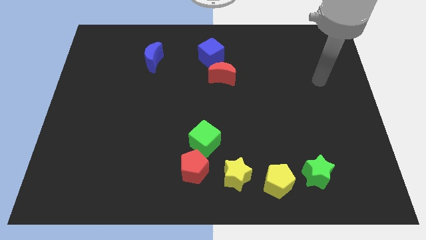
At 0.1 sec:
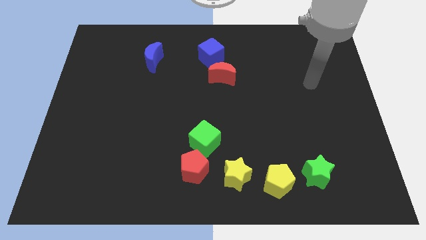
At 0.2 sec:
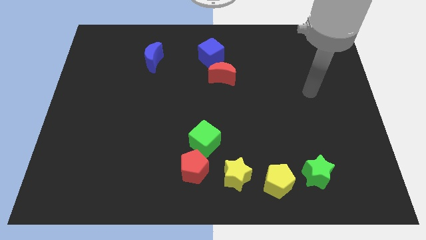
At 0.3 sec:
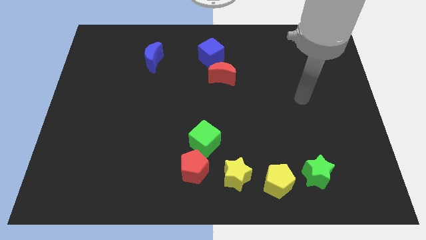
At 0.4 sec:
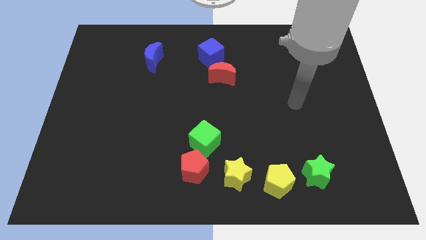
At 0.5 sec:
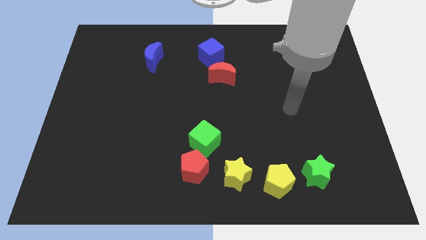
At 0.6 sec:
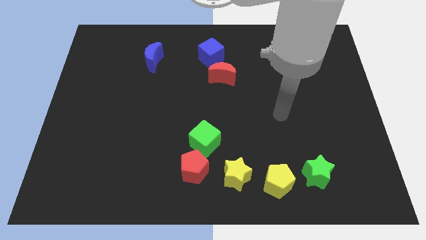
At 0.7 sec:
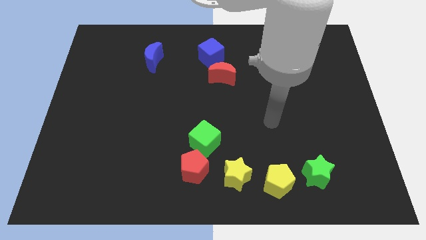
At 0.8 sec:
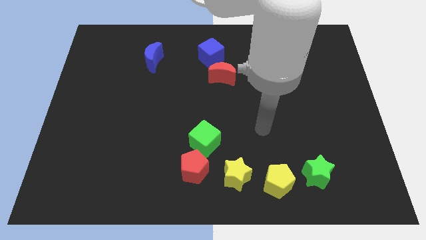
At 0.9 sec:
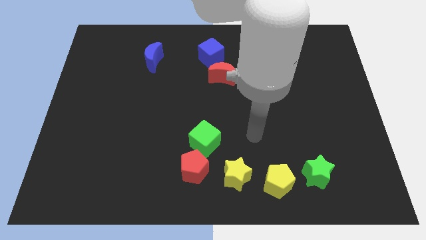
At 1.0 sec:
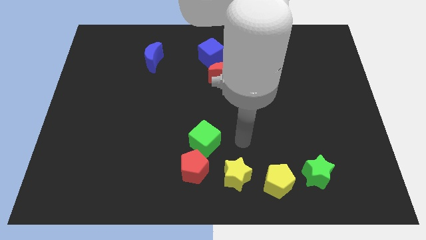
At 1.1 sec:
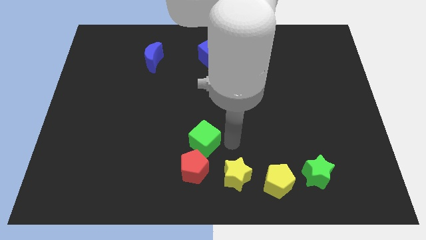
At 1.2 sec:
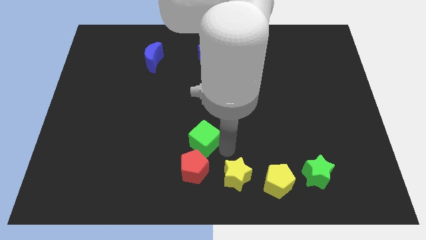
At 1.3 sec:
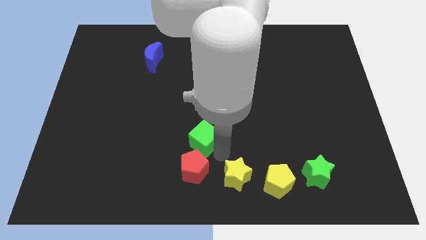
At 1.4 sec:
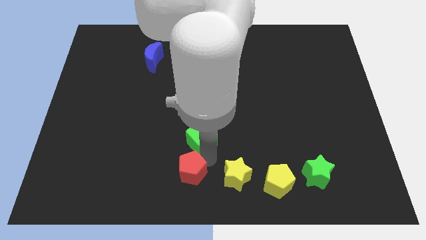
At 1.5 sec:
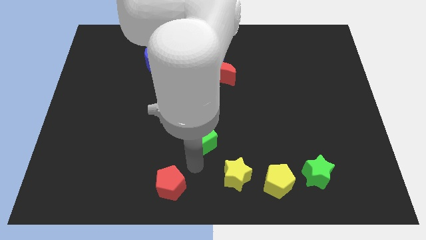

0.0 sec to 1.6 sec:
pull the green cube apart from the red pentagon

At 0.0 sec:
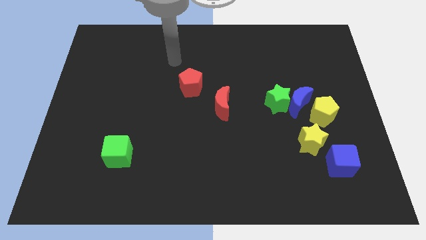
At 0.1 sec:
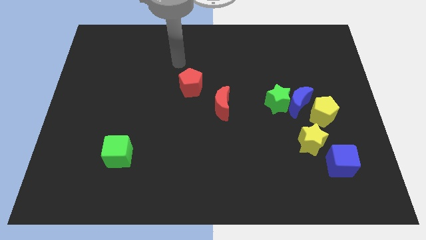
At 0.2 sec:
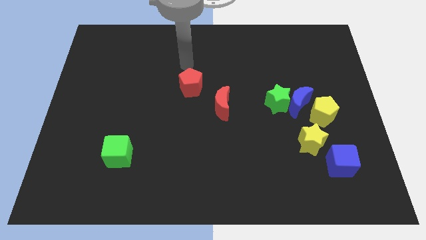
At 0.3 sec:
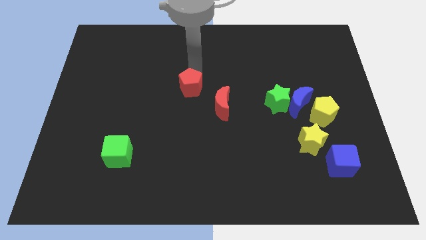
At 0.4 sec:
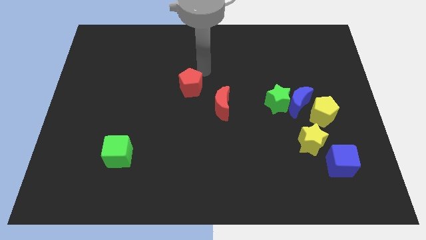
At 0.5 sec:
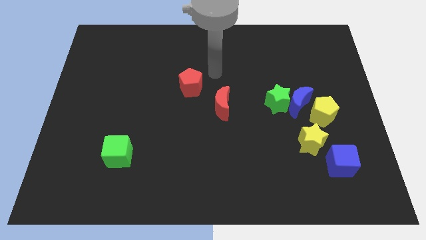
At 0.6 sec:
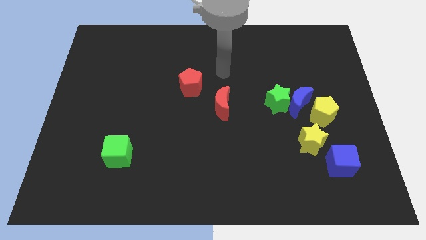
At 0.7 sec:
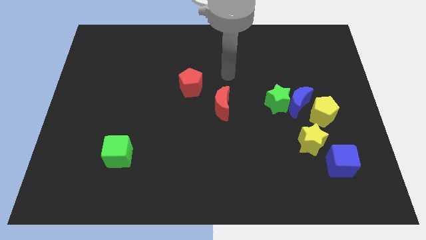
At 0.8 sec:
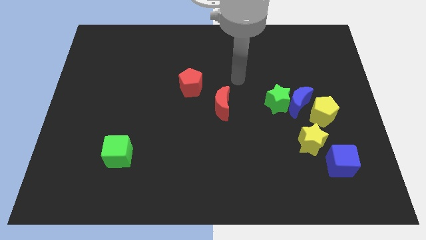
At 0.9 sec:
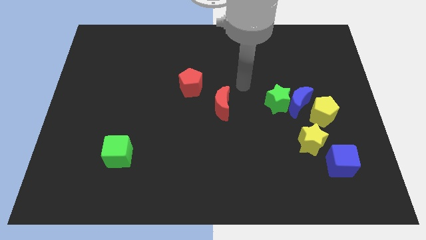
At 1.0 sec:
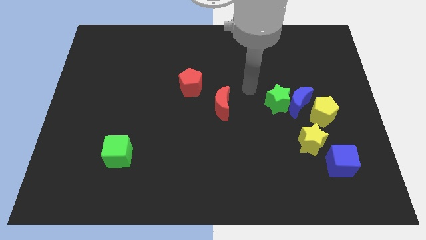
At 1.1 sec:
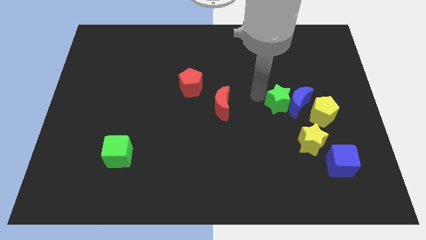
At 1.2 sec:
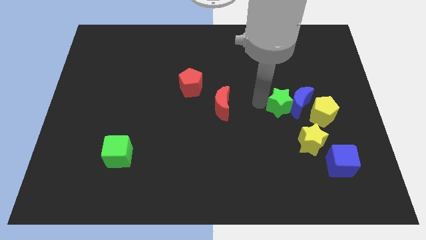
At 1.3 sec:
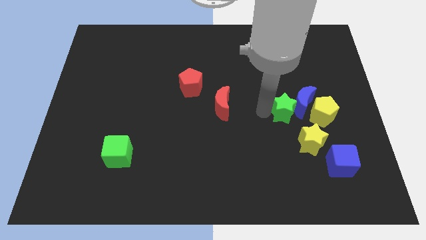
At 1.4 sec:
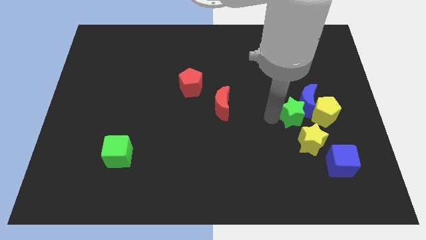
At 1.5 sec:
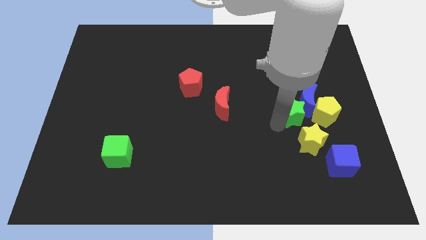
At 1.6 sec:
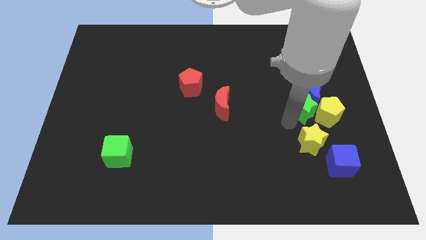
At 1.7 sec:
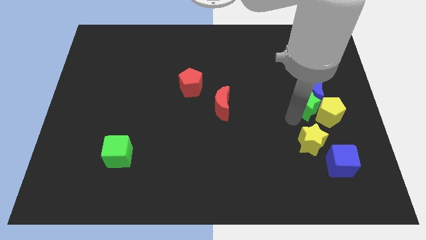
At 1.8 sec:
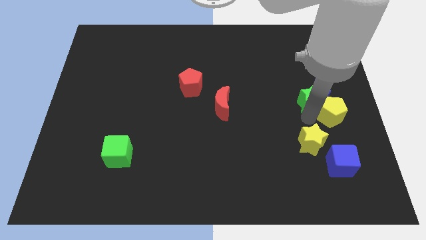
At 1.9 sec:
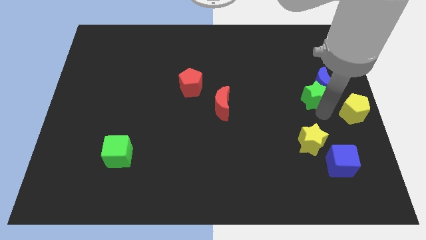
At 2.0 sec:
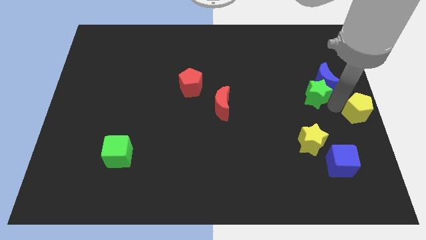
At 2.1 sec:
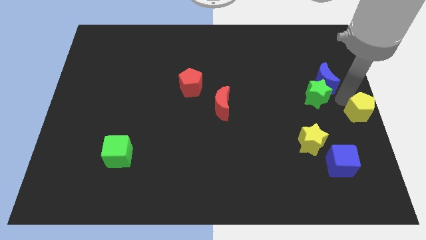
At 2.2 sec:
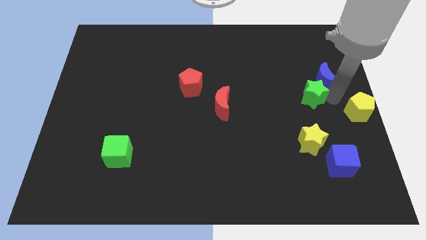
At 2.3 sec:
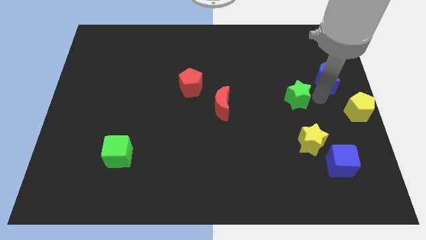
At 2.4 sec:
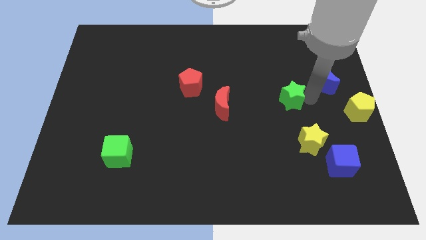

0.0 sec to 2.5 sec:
pull the green star apart from the blue moon

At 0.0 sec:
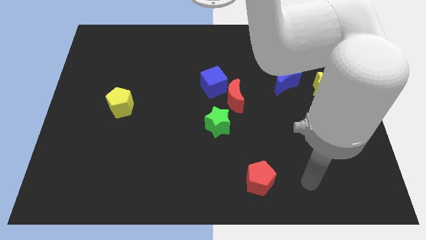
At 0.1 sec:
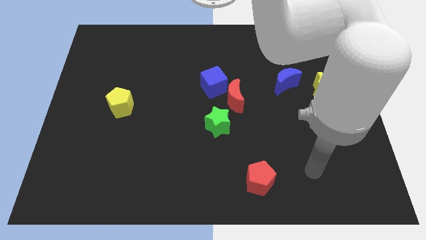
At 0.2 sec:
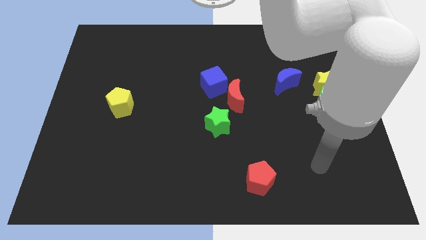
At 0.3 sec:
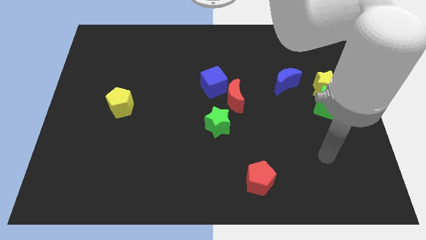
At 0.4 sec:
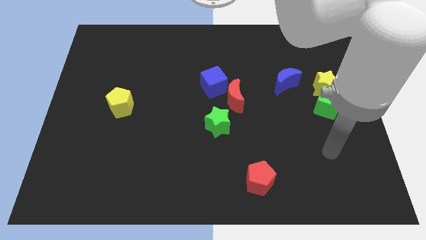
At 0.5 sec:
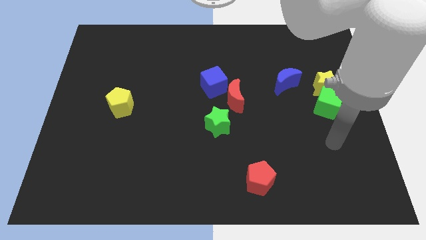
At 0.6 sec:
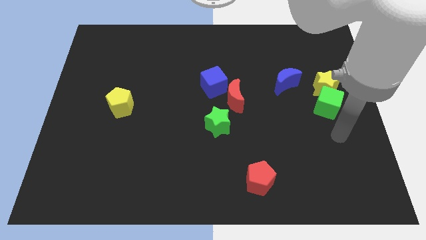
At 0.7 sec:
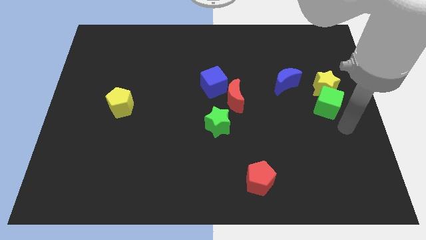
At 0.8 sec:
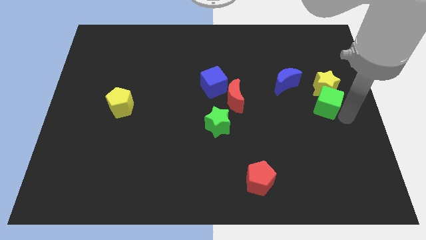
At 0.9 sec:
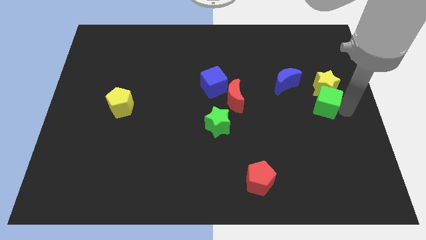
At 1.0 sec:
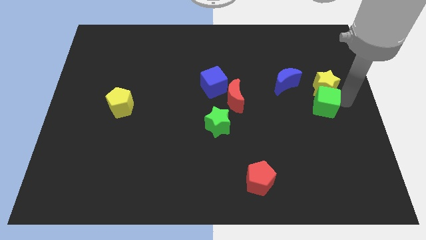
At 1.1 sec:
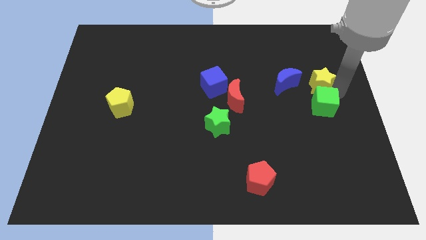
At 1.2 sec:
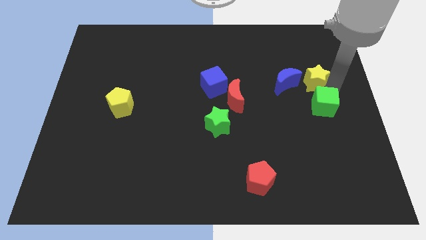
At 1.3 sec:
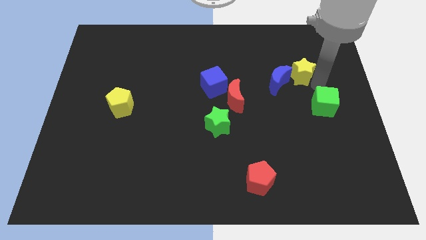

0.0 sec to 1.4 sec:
separate the green cube from the yellow star

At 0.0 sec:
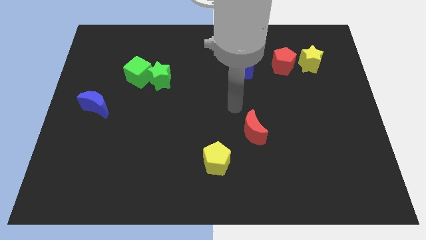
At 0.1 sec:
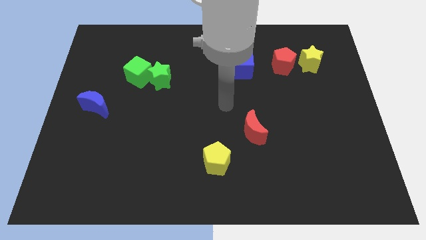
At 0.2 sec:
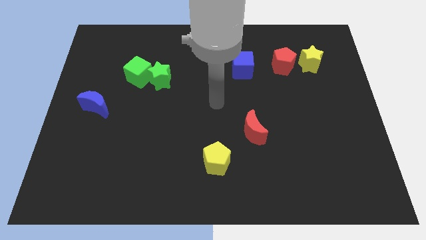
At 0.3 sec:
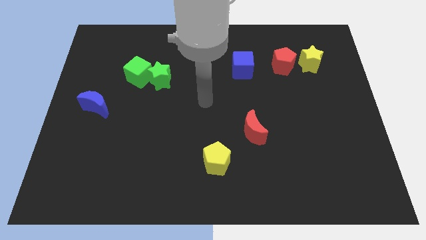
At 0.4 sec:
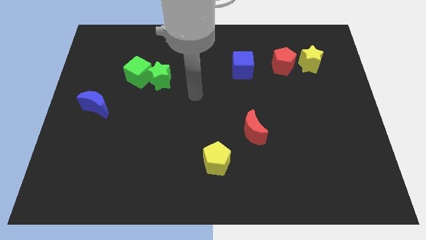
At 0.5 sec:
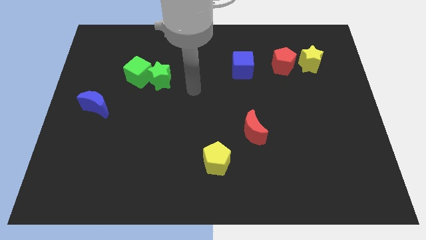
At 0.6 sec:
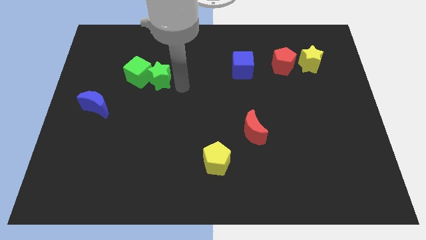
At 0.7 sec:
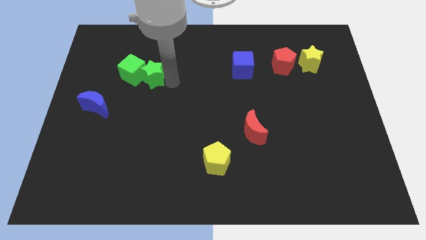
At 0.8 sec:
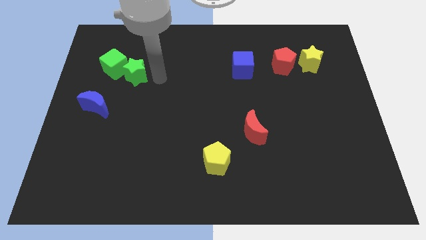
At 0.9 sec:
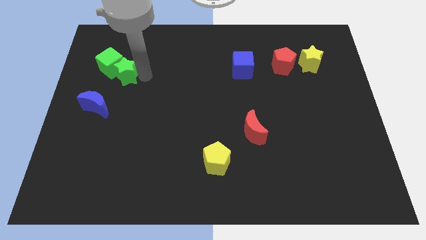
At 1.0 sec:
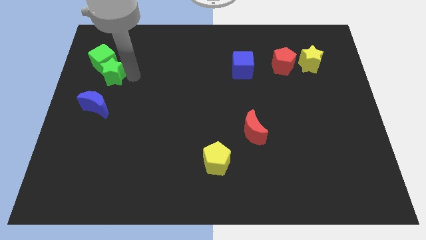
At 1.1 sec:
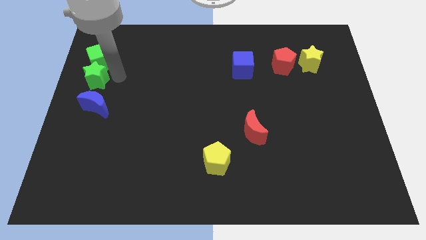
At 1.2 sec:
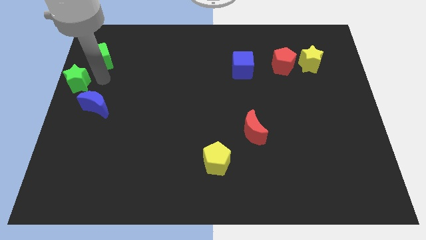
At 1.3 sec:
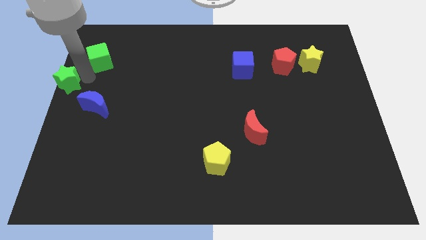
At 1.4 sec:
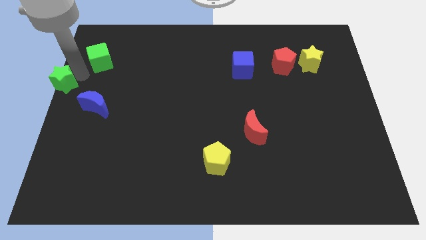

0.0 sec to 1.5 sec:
move the green cube away from the green star

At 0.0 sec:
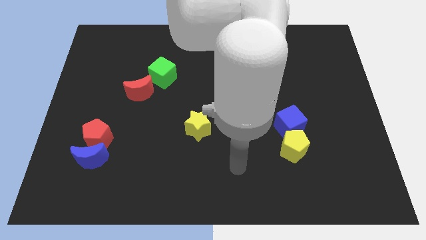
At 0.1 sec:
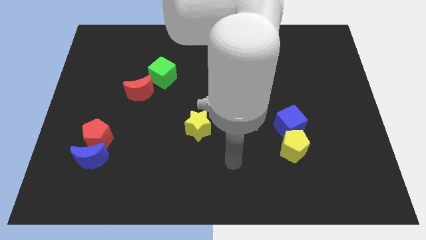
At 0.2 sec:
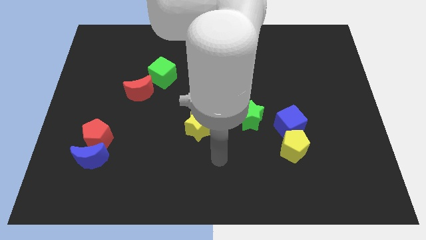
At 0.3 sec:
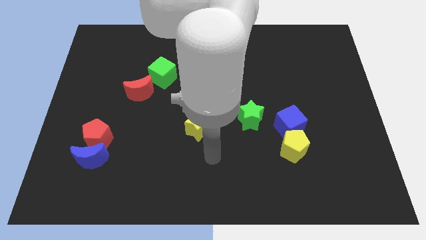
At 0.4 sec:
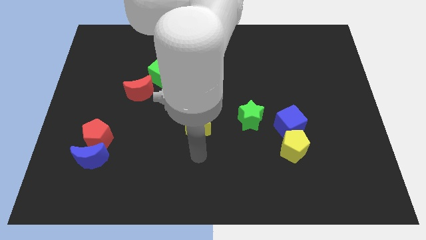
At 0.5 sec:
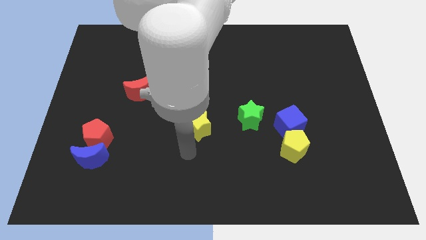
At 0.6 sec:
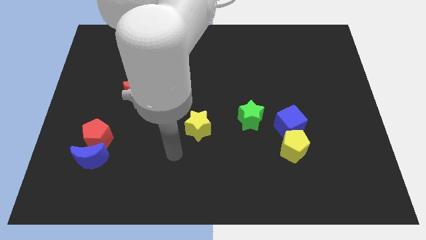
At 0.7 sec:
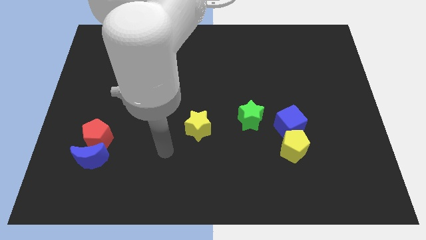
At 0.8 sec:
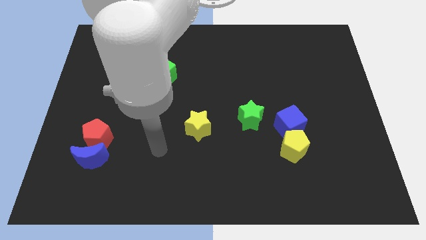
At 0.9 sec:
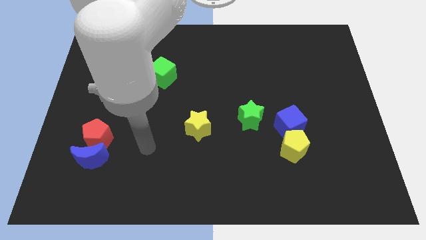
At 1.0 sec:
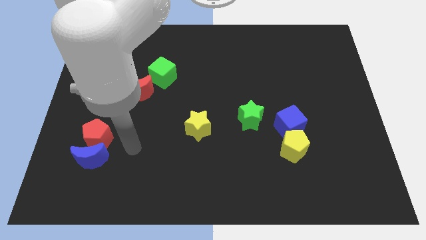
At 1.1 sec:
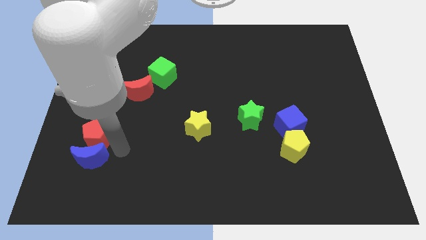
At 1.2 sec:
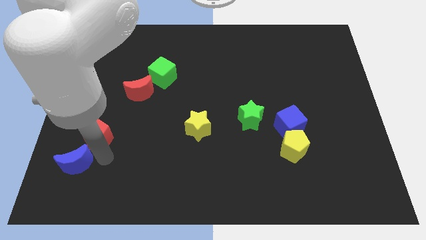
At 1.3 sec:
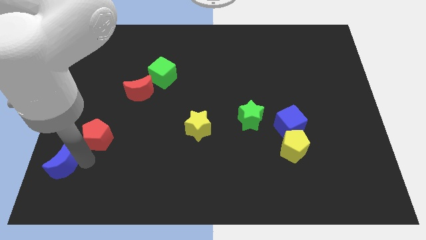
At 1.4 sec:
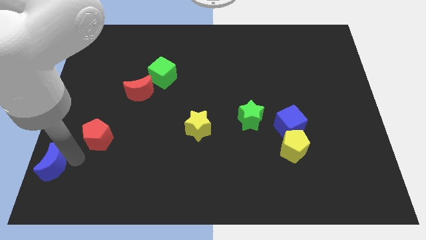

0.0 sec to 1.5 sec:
pull the red pentagon apart from the blue moon

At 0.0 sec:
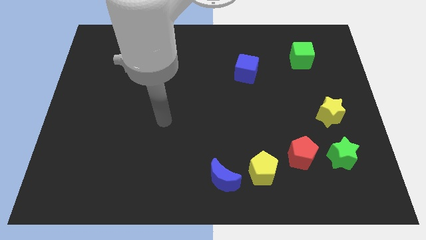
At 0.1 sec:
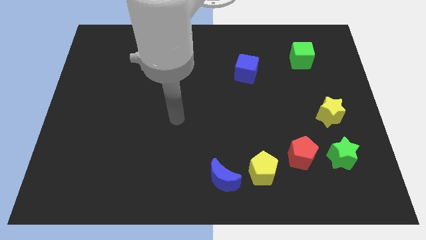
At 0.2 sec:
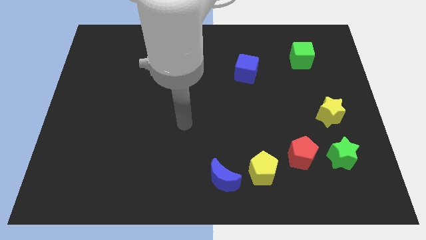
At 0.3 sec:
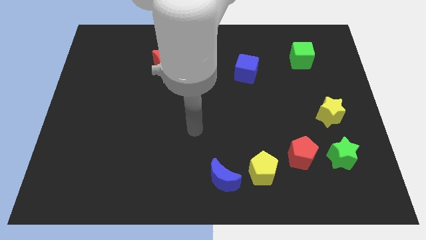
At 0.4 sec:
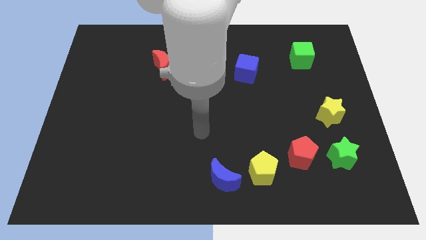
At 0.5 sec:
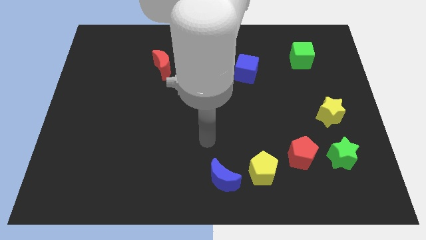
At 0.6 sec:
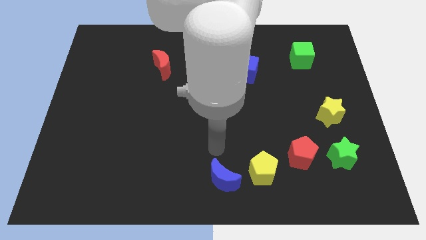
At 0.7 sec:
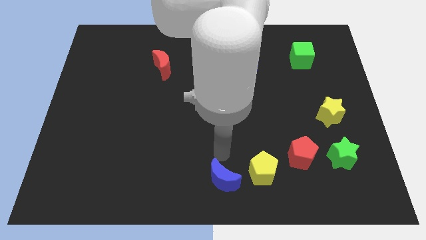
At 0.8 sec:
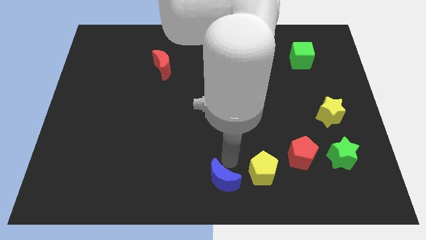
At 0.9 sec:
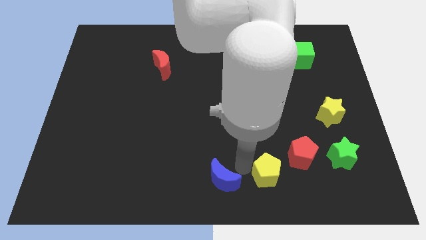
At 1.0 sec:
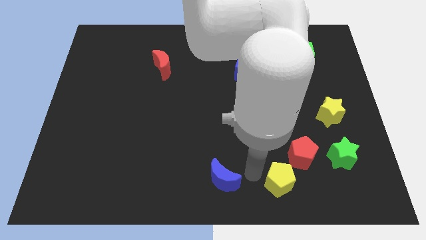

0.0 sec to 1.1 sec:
move the blue moon away from the yellow pentagon
